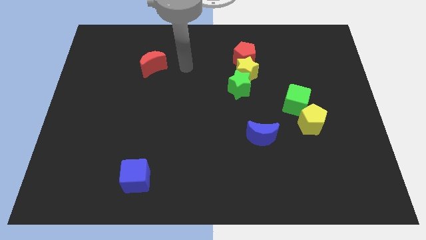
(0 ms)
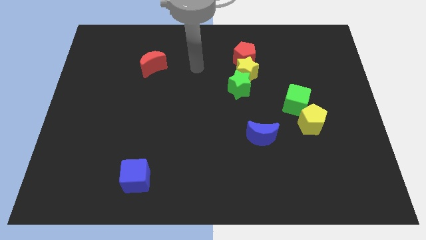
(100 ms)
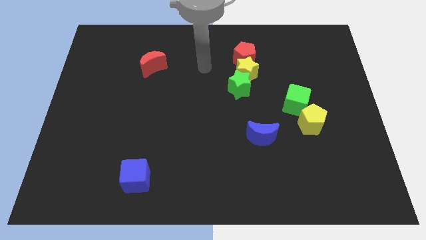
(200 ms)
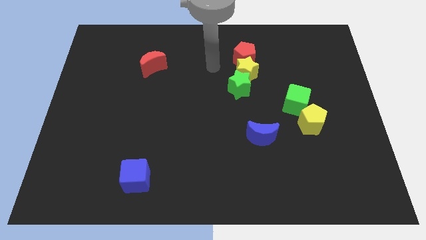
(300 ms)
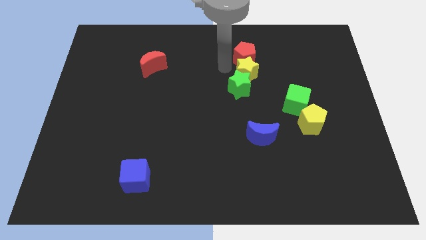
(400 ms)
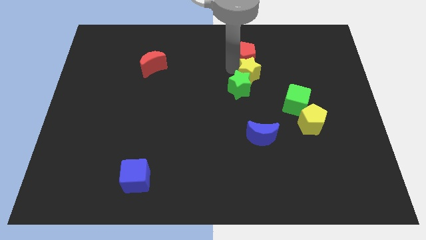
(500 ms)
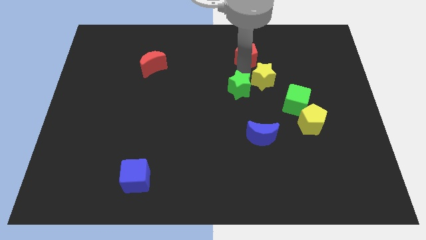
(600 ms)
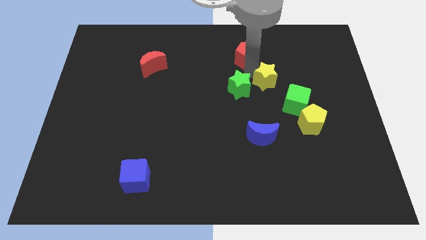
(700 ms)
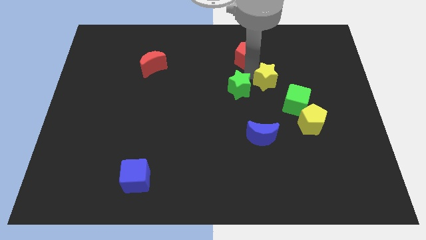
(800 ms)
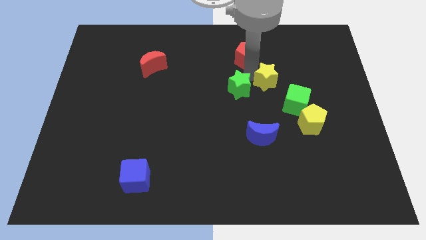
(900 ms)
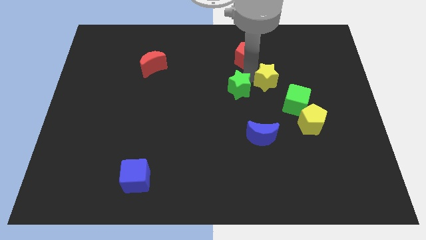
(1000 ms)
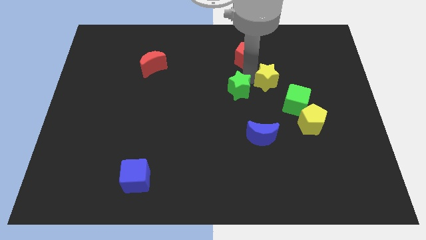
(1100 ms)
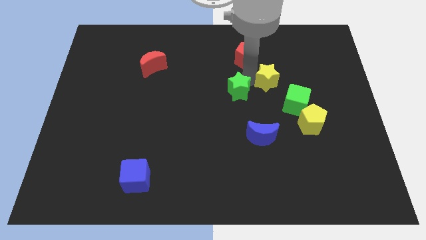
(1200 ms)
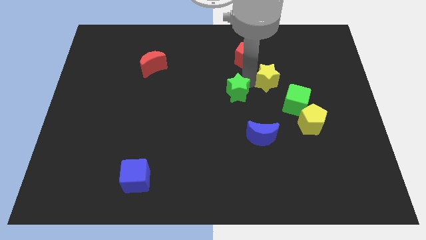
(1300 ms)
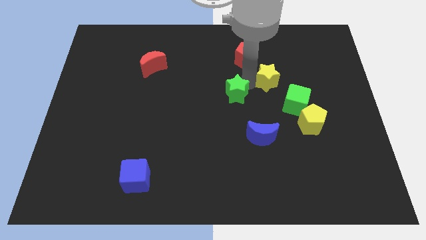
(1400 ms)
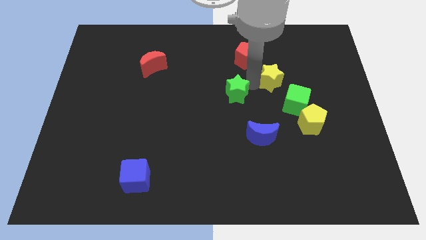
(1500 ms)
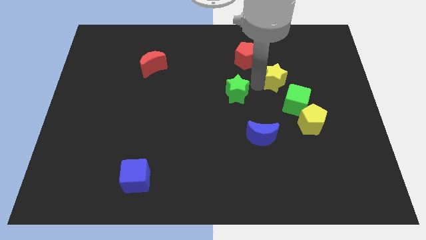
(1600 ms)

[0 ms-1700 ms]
move the green star away from the yellow star

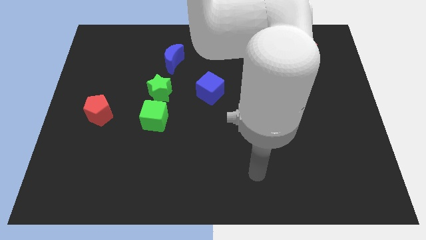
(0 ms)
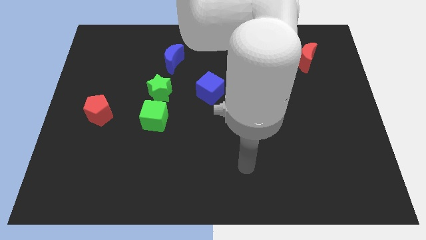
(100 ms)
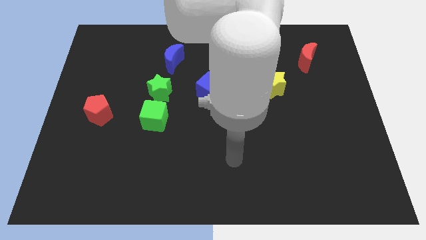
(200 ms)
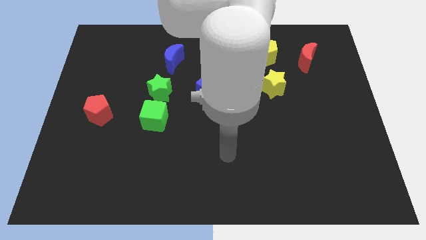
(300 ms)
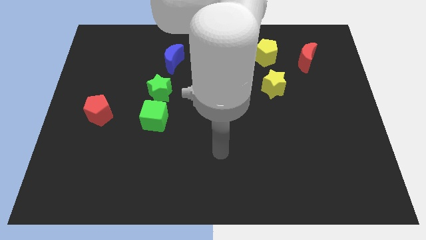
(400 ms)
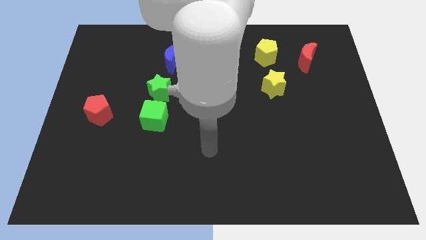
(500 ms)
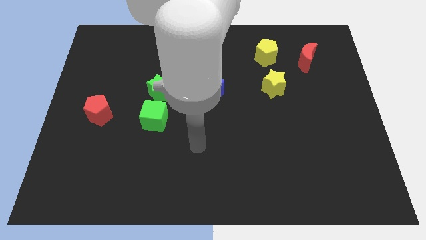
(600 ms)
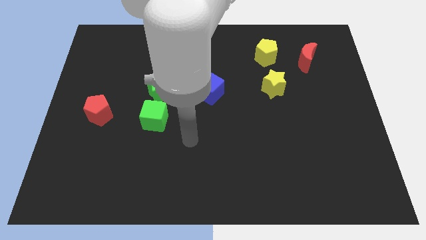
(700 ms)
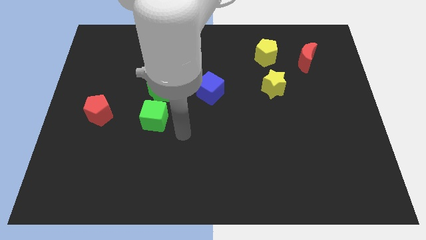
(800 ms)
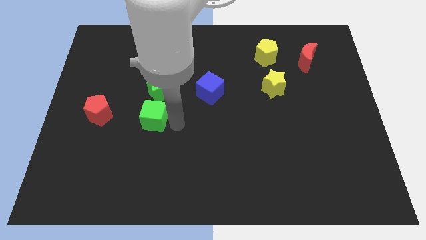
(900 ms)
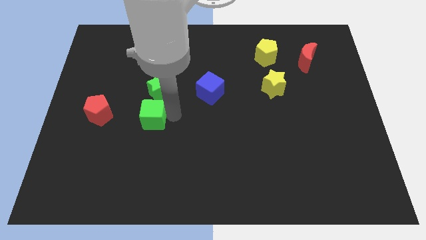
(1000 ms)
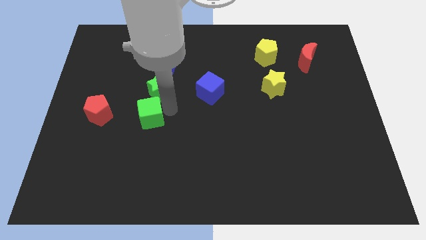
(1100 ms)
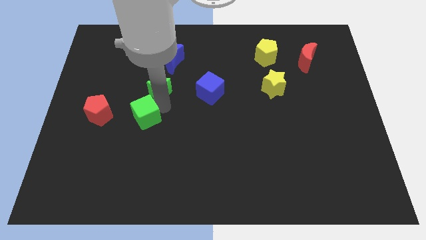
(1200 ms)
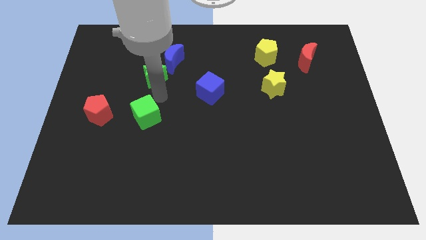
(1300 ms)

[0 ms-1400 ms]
pull the green cube apart from the green star

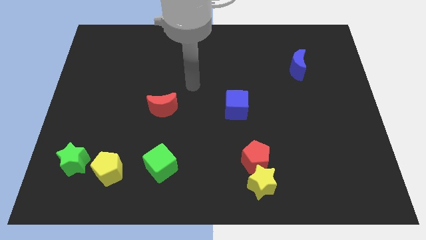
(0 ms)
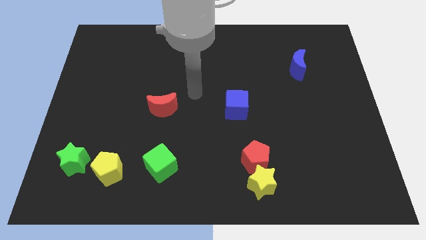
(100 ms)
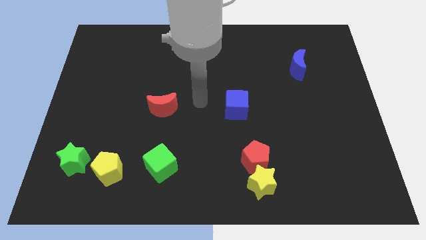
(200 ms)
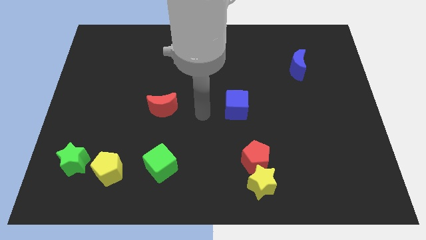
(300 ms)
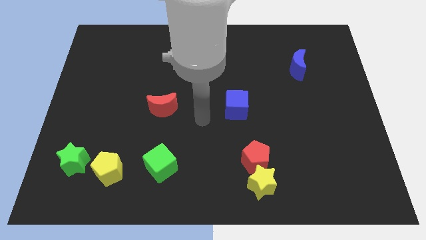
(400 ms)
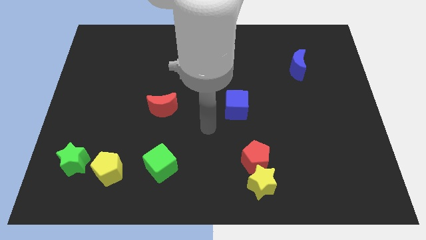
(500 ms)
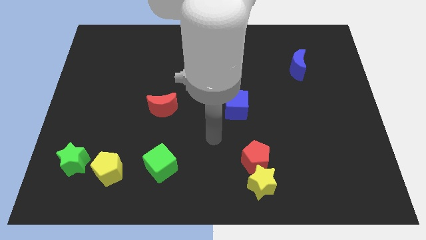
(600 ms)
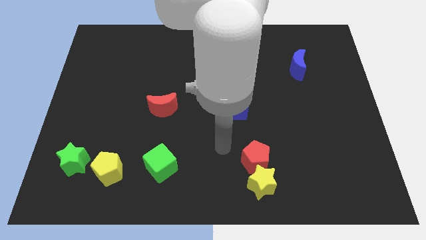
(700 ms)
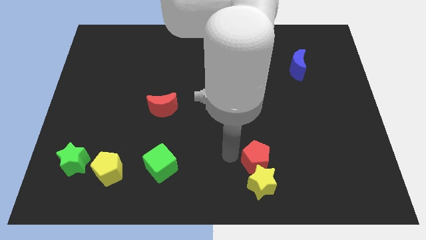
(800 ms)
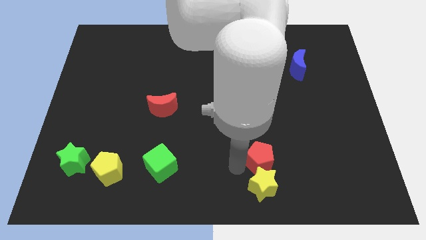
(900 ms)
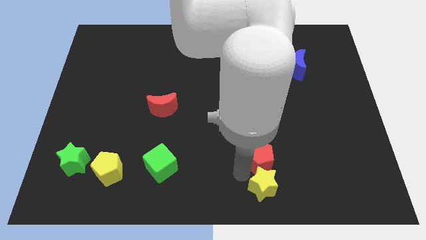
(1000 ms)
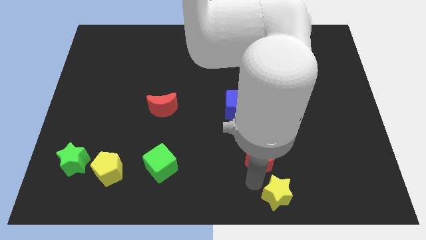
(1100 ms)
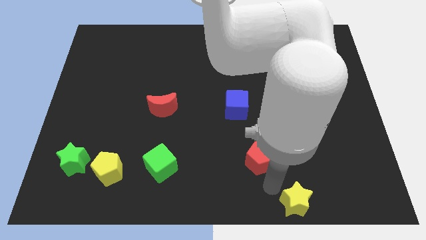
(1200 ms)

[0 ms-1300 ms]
move the red pentagon away from the yellow star

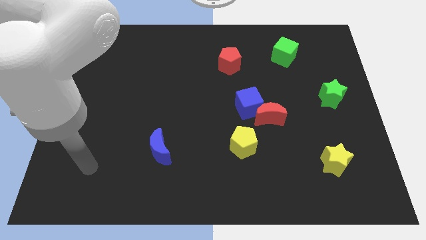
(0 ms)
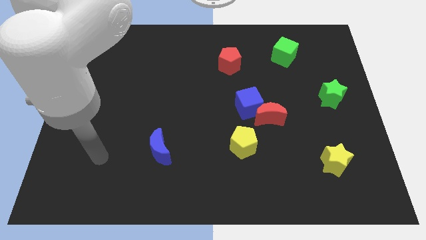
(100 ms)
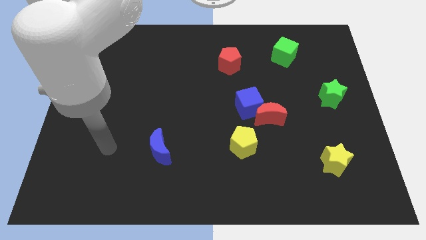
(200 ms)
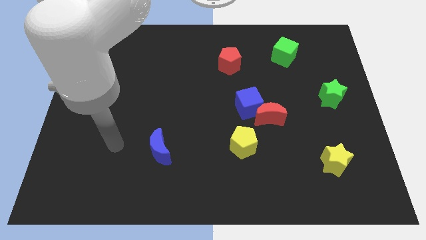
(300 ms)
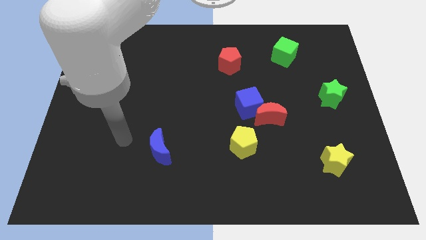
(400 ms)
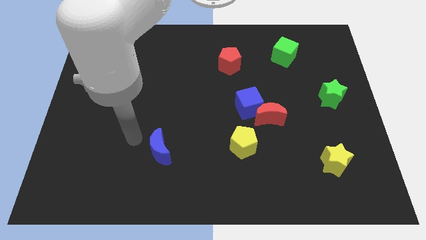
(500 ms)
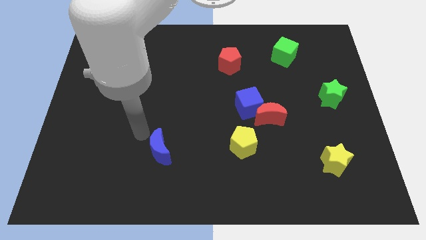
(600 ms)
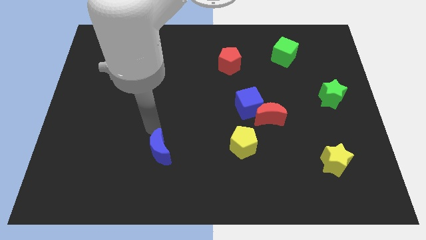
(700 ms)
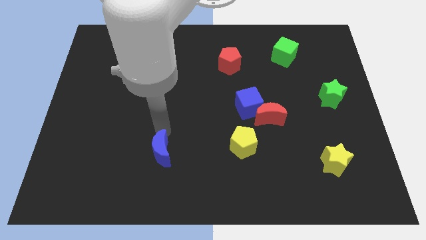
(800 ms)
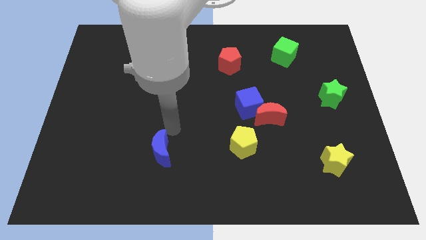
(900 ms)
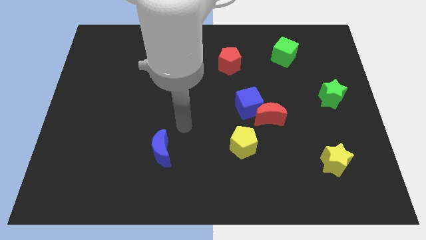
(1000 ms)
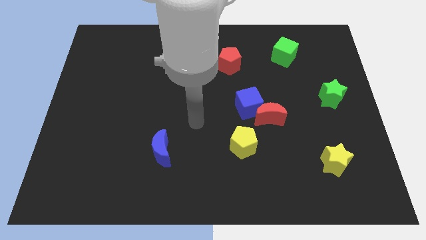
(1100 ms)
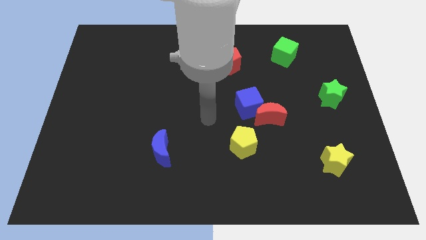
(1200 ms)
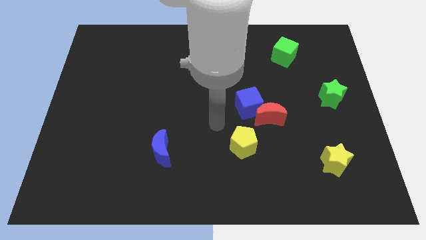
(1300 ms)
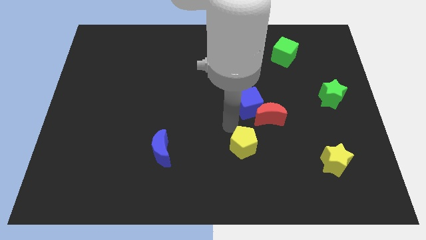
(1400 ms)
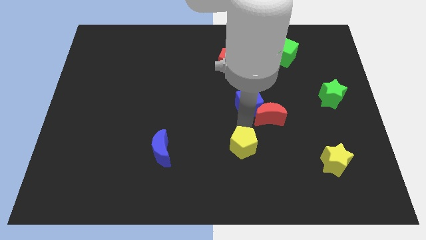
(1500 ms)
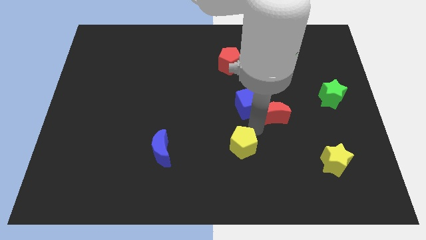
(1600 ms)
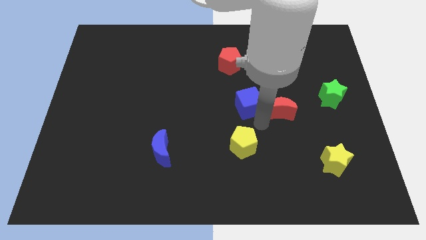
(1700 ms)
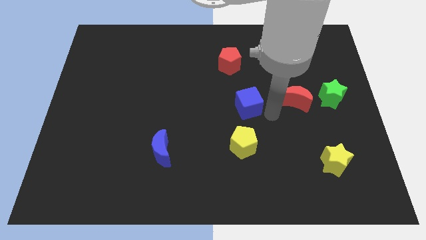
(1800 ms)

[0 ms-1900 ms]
separate the blue cube from the red moon

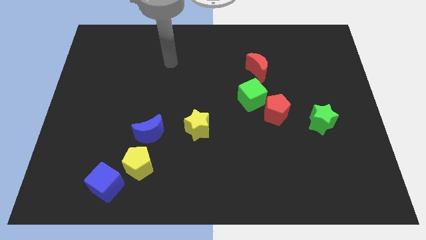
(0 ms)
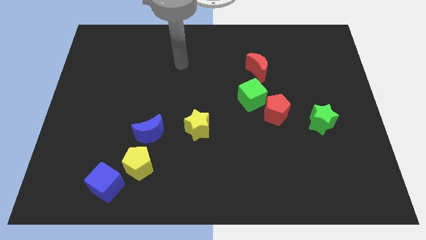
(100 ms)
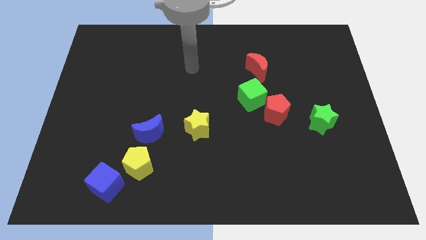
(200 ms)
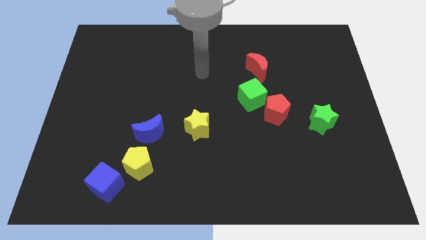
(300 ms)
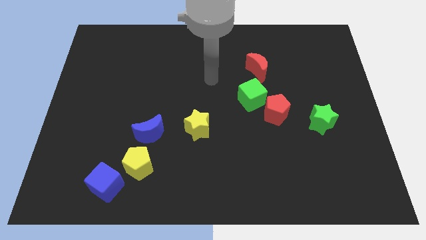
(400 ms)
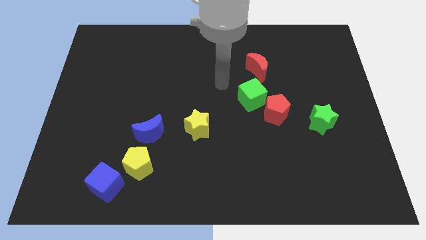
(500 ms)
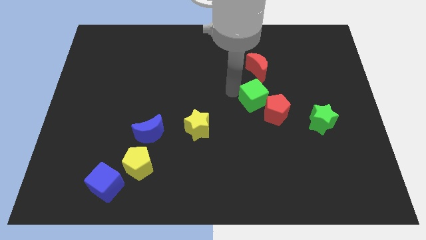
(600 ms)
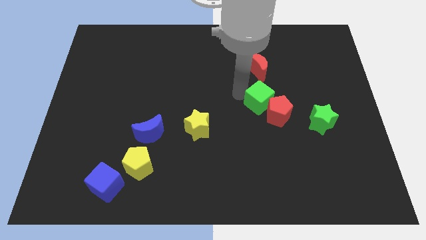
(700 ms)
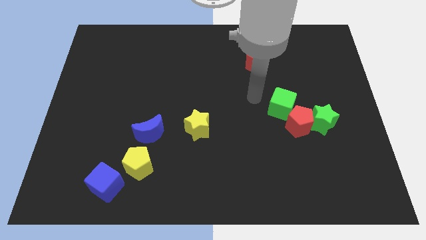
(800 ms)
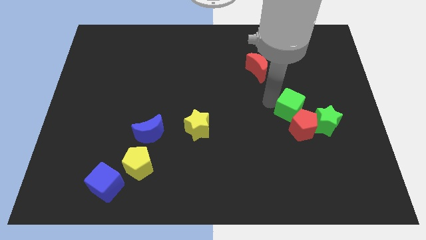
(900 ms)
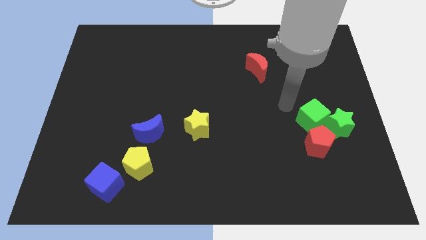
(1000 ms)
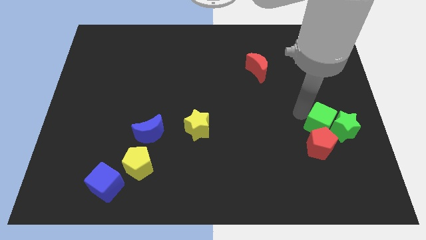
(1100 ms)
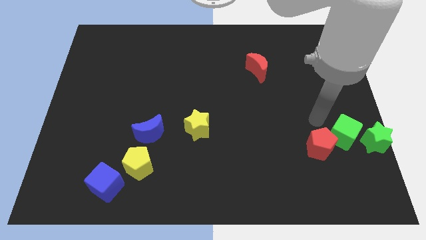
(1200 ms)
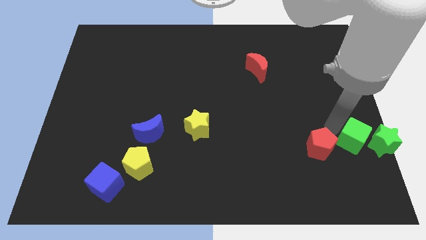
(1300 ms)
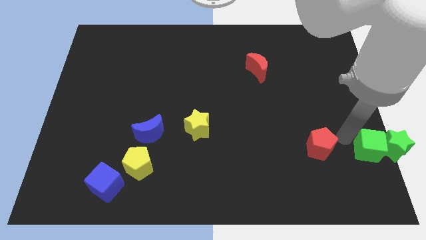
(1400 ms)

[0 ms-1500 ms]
pull the red pentagon apart from the green cube

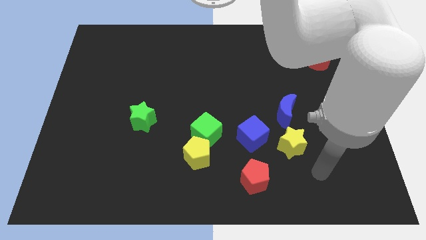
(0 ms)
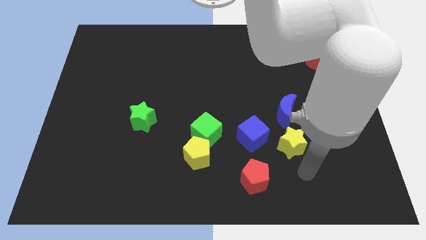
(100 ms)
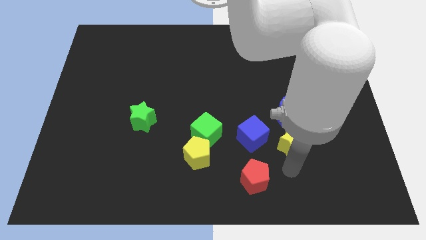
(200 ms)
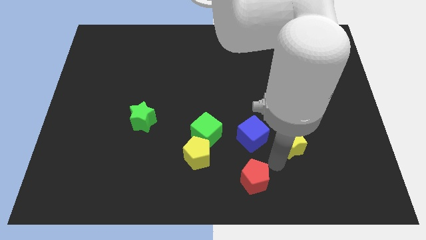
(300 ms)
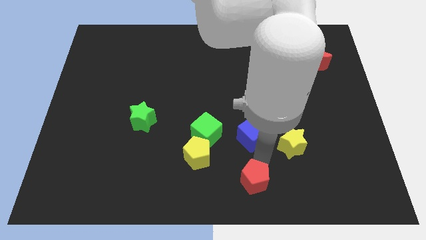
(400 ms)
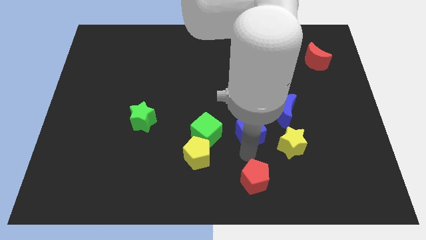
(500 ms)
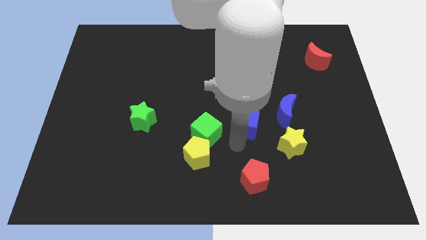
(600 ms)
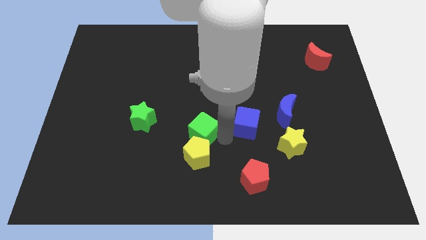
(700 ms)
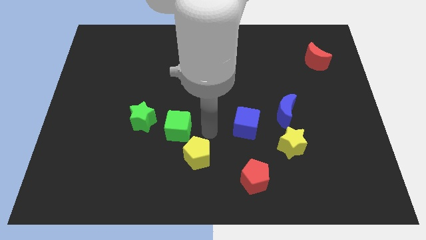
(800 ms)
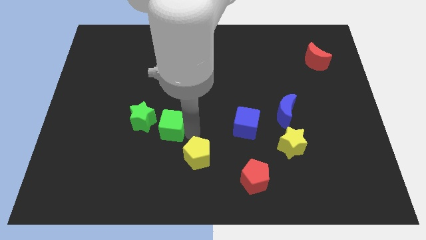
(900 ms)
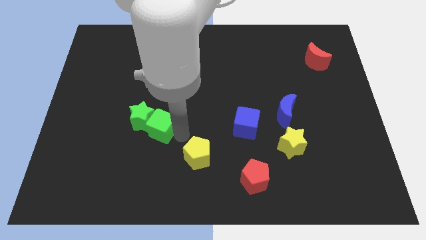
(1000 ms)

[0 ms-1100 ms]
move the yellow pentagon away from the green cube

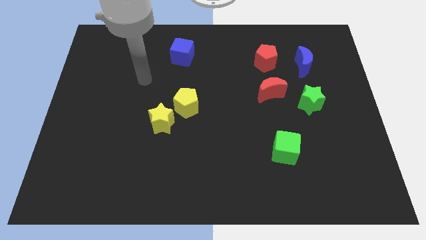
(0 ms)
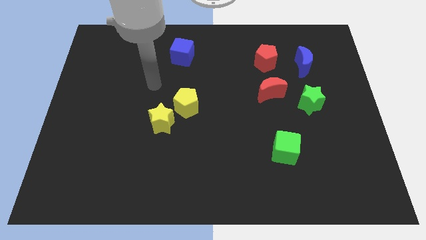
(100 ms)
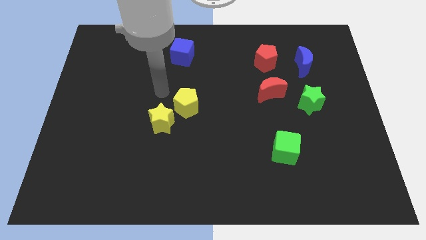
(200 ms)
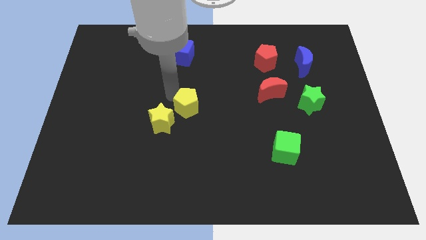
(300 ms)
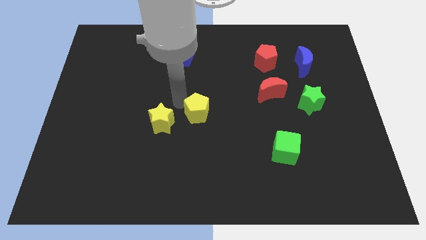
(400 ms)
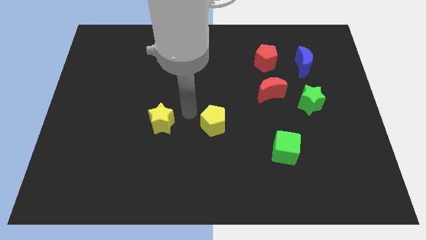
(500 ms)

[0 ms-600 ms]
move the yellow star away from the yellow pentagon
